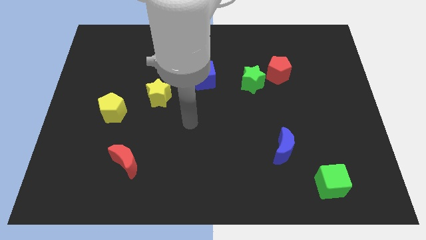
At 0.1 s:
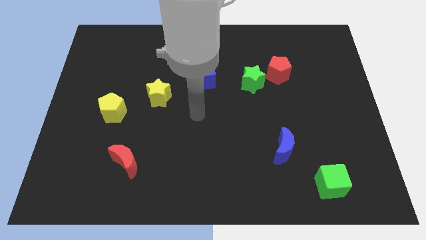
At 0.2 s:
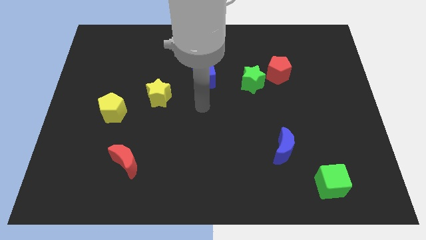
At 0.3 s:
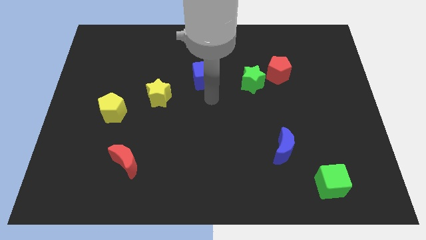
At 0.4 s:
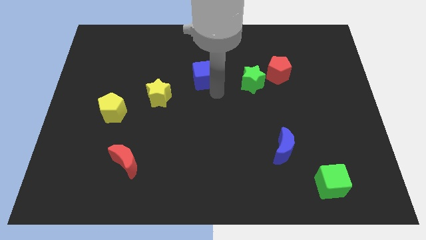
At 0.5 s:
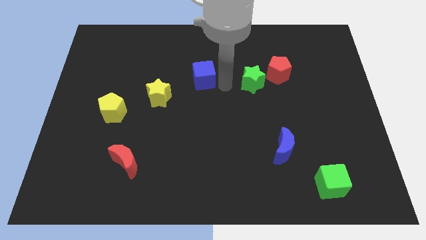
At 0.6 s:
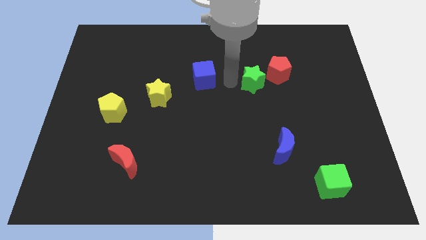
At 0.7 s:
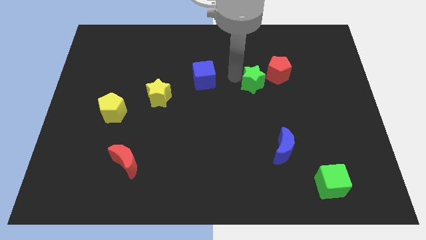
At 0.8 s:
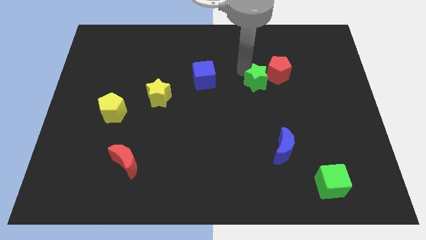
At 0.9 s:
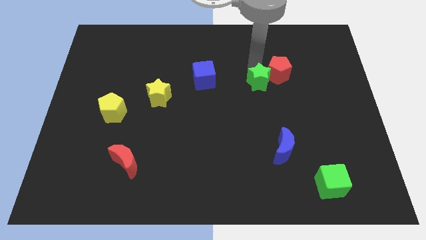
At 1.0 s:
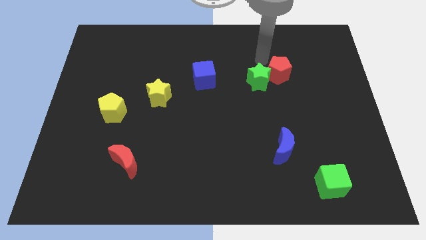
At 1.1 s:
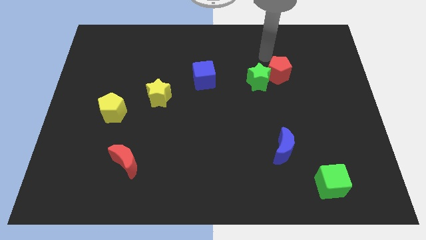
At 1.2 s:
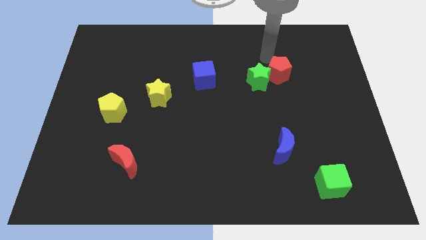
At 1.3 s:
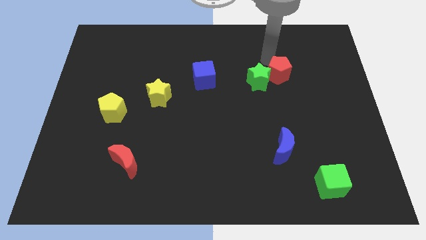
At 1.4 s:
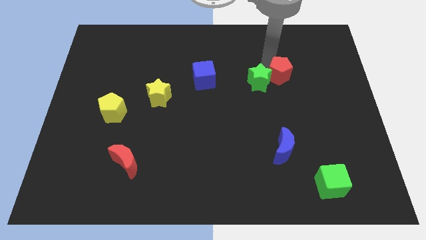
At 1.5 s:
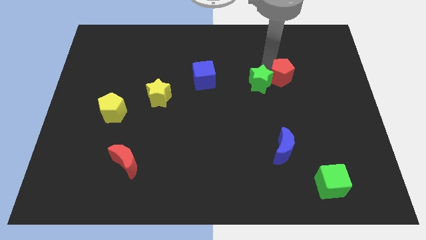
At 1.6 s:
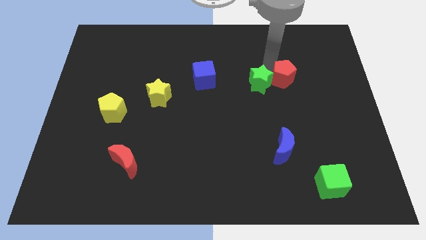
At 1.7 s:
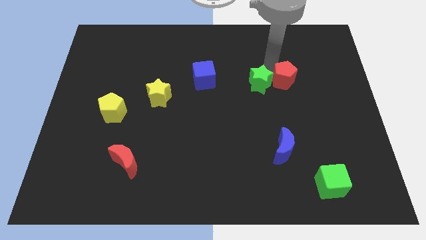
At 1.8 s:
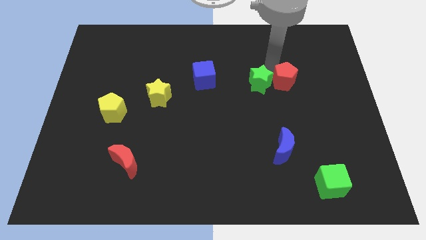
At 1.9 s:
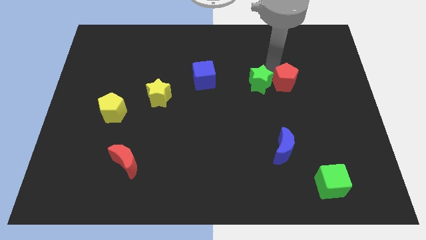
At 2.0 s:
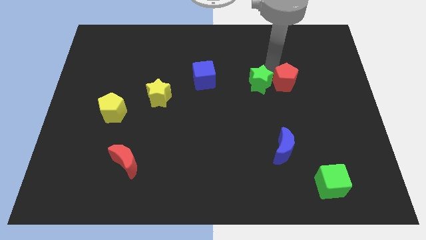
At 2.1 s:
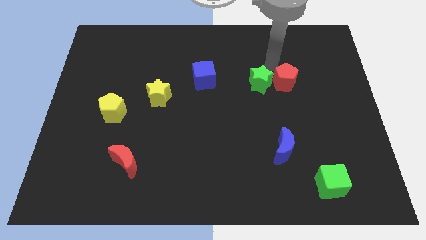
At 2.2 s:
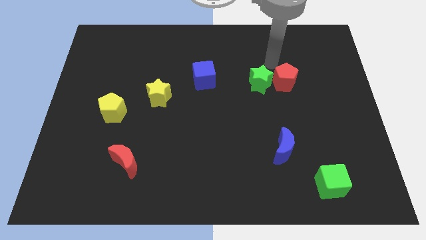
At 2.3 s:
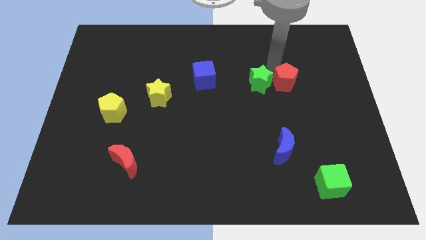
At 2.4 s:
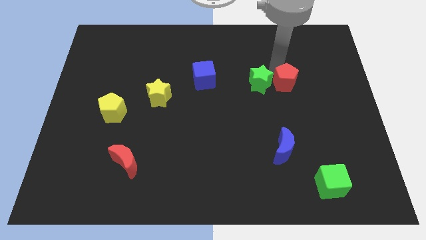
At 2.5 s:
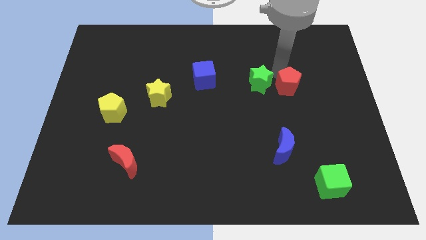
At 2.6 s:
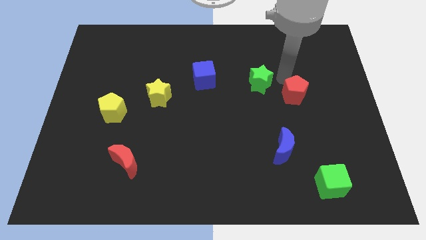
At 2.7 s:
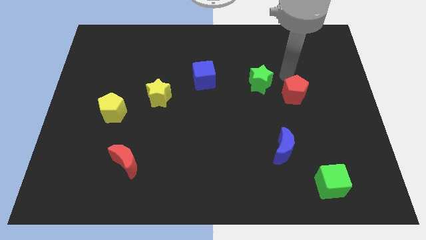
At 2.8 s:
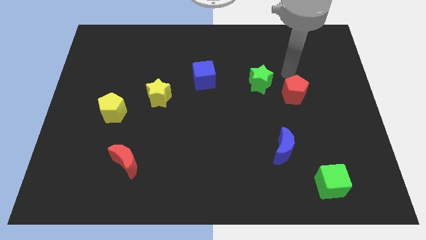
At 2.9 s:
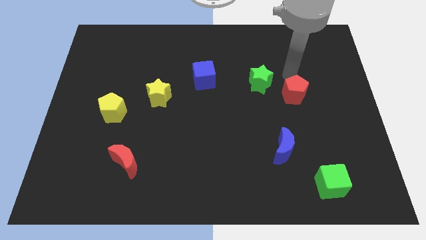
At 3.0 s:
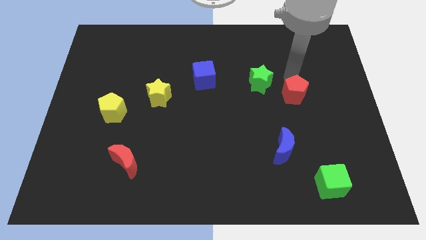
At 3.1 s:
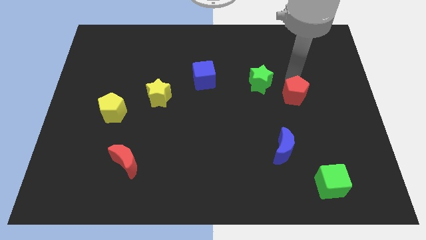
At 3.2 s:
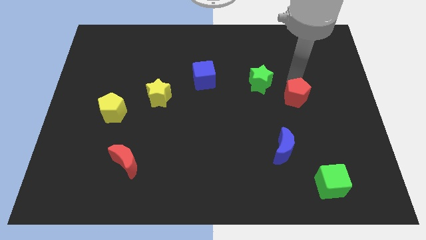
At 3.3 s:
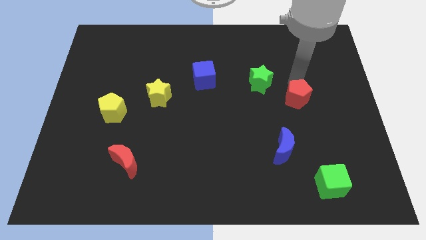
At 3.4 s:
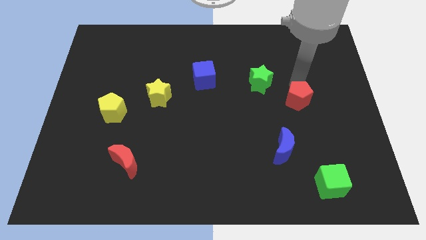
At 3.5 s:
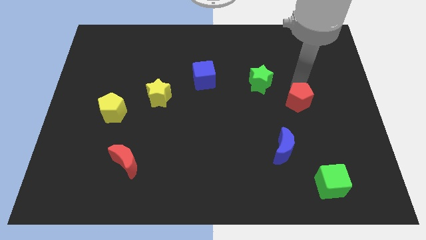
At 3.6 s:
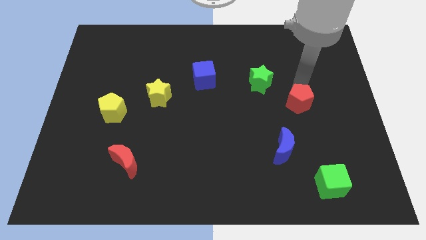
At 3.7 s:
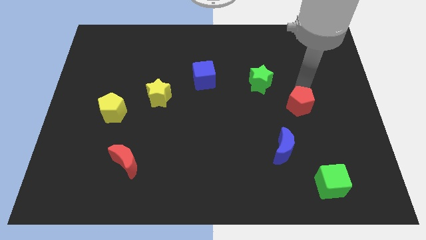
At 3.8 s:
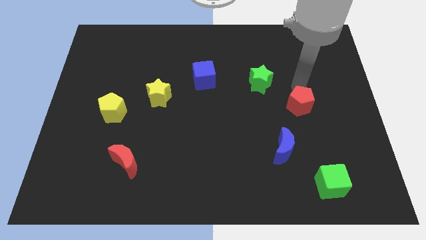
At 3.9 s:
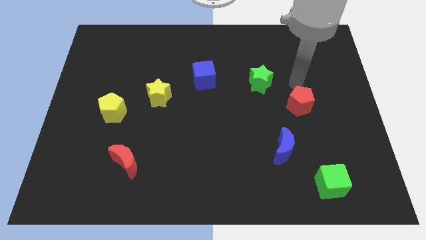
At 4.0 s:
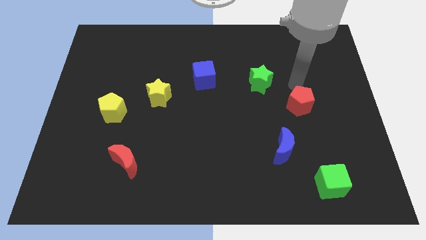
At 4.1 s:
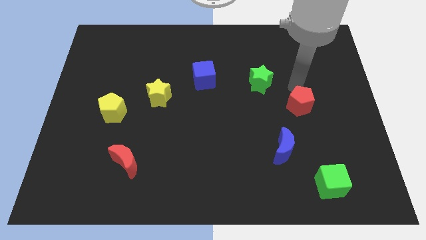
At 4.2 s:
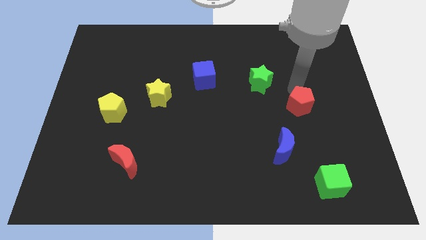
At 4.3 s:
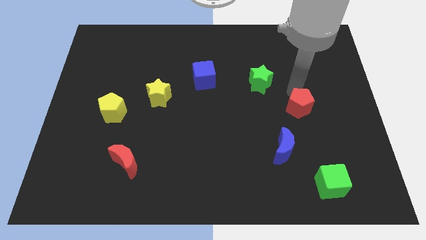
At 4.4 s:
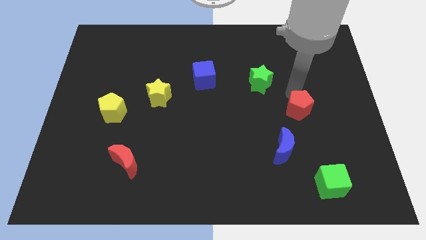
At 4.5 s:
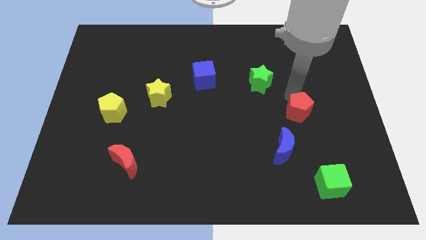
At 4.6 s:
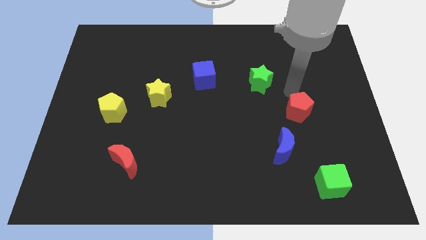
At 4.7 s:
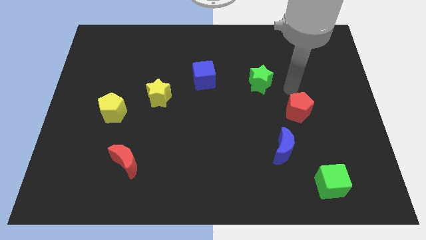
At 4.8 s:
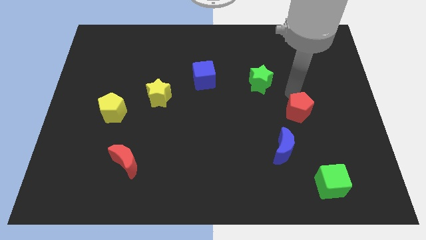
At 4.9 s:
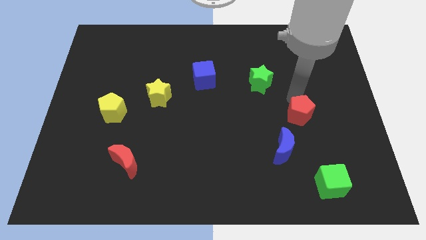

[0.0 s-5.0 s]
push the red pentagon diagonally up and to the right of the blue moon

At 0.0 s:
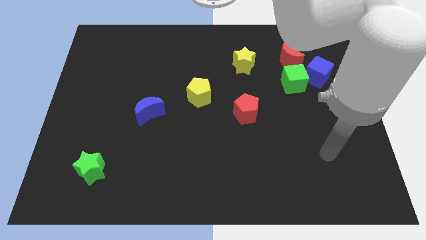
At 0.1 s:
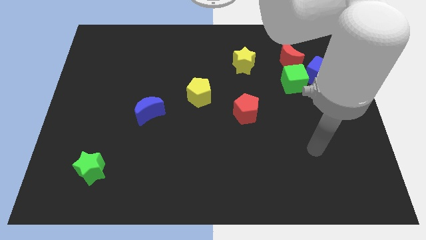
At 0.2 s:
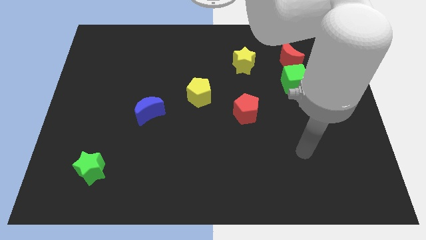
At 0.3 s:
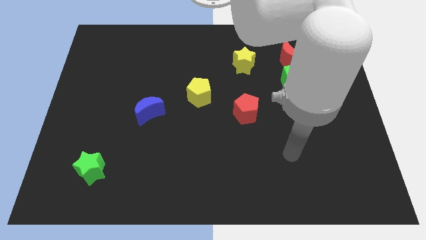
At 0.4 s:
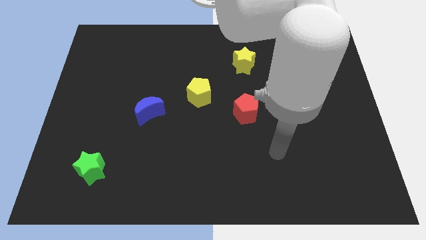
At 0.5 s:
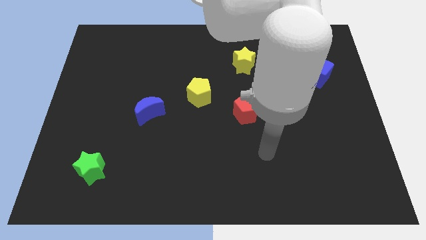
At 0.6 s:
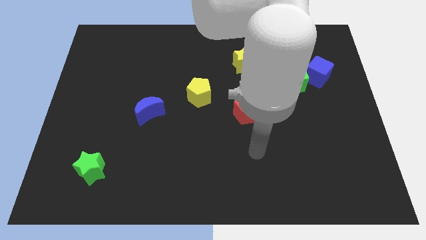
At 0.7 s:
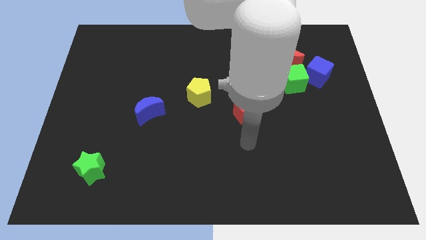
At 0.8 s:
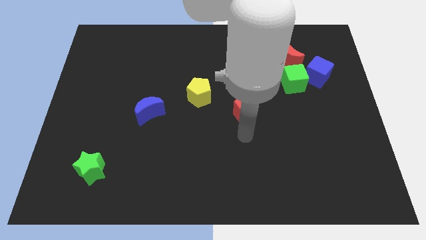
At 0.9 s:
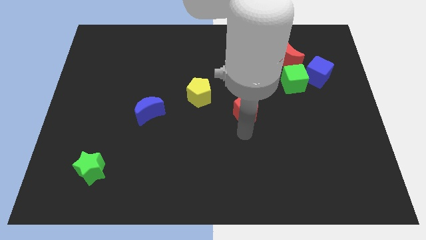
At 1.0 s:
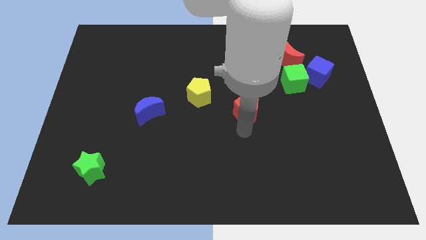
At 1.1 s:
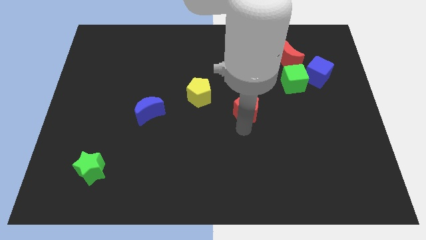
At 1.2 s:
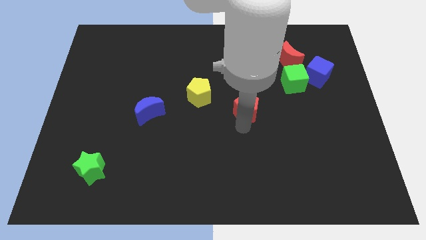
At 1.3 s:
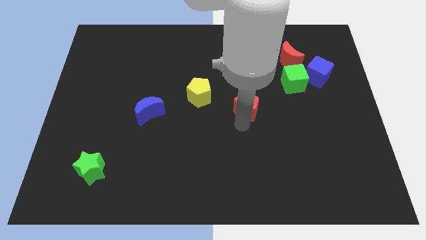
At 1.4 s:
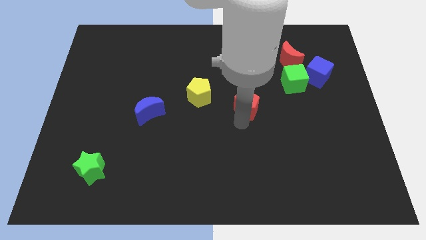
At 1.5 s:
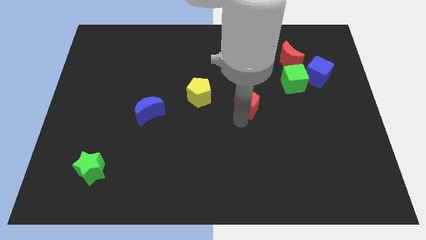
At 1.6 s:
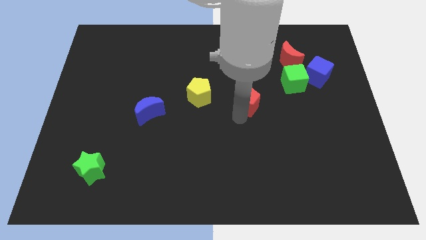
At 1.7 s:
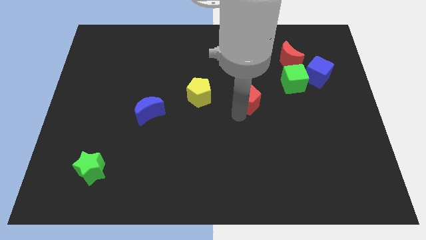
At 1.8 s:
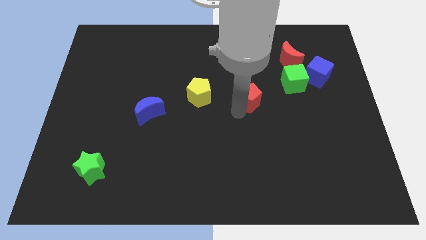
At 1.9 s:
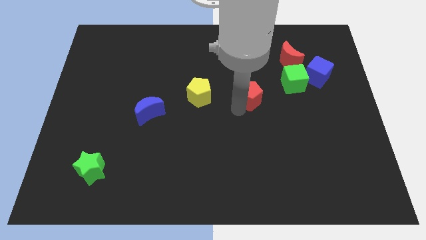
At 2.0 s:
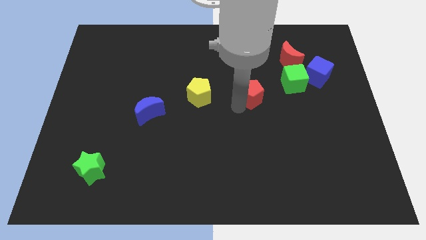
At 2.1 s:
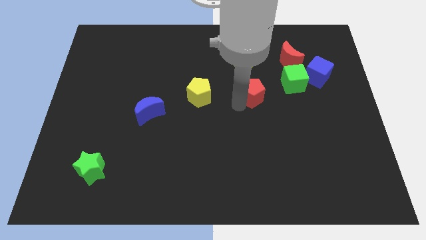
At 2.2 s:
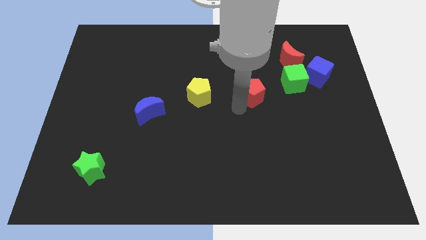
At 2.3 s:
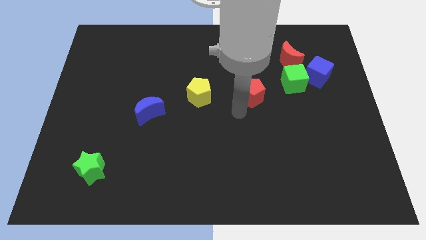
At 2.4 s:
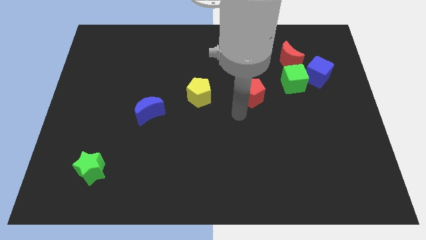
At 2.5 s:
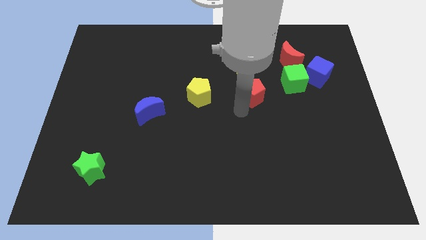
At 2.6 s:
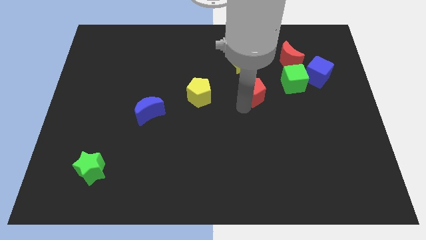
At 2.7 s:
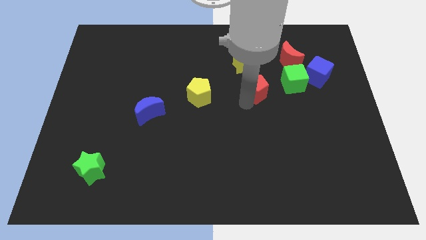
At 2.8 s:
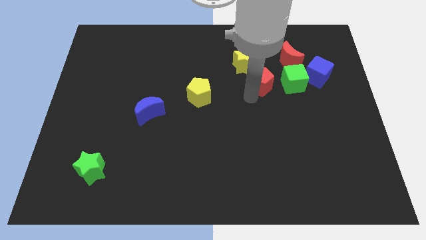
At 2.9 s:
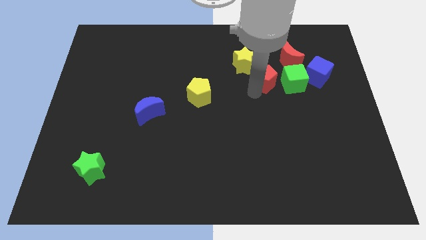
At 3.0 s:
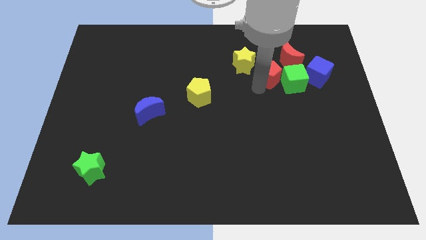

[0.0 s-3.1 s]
put the red pentagon to the top left side of the green cube
